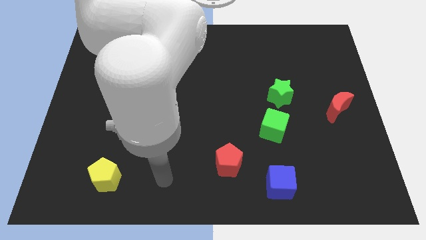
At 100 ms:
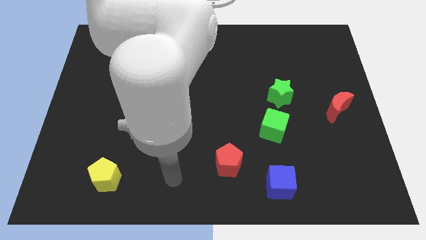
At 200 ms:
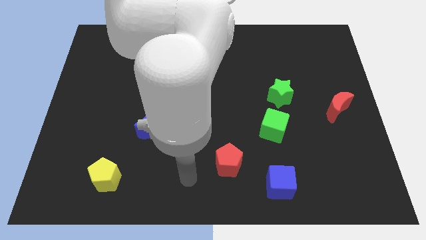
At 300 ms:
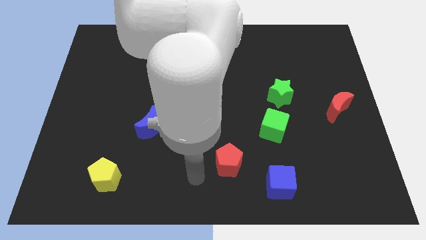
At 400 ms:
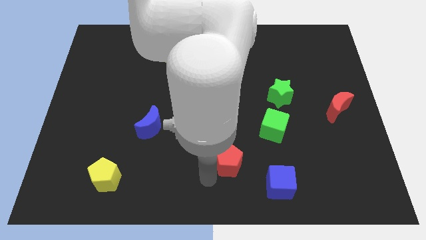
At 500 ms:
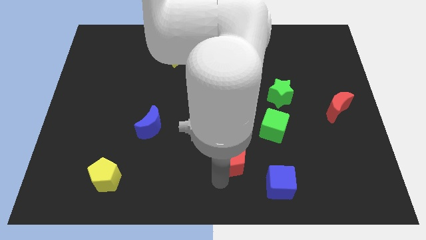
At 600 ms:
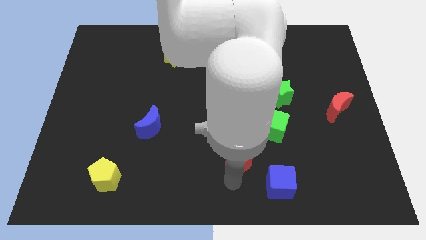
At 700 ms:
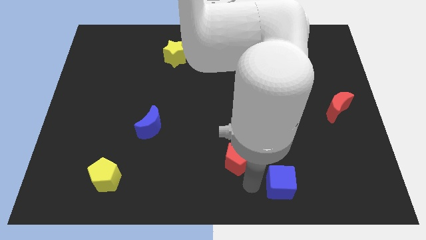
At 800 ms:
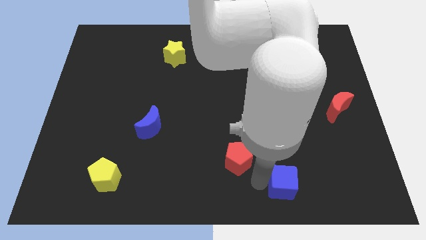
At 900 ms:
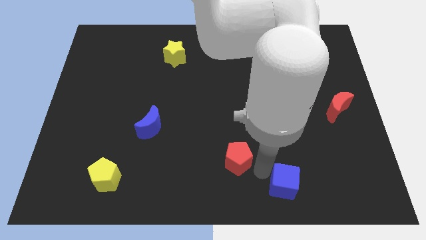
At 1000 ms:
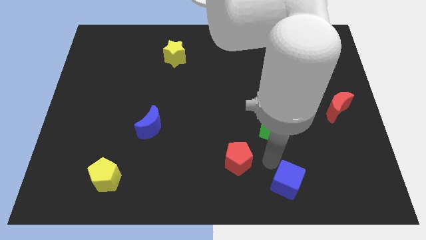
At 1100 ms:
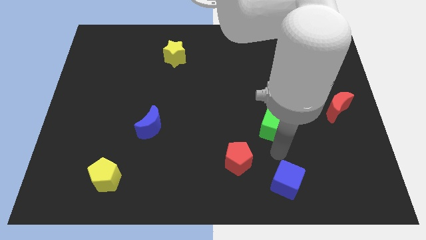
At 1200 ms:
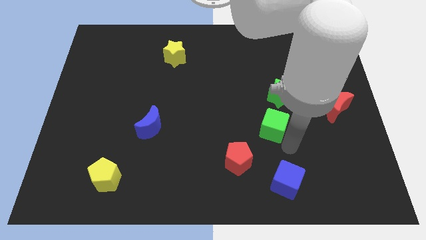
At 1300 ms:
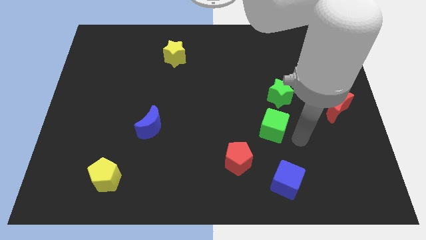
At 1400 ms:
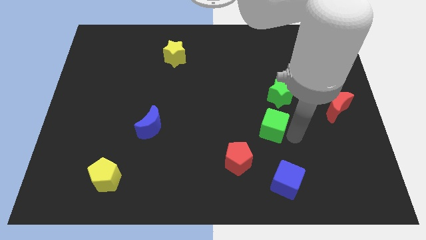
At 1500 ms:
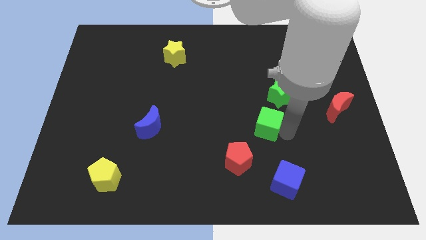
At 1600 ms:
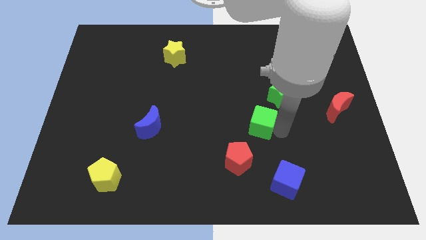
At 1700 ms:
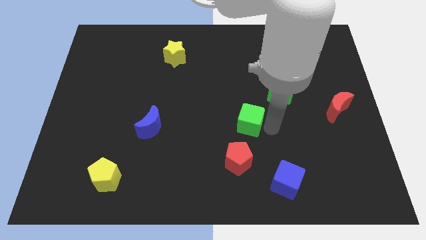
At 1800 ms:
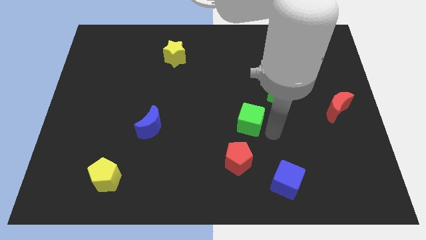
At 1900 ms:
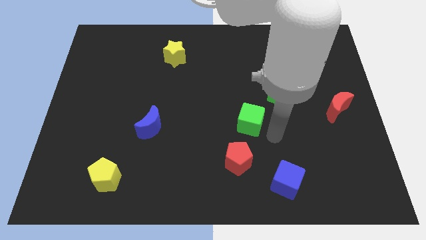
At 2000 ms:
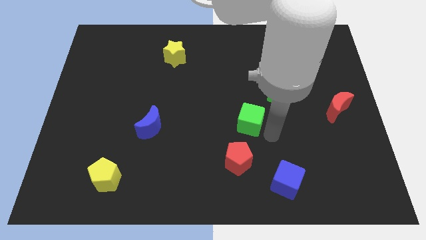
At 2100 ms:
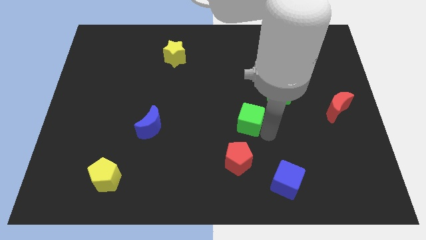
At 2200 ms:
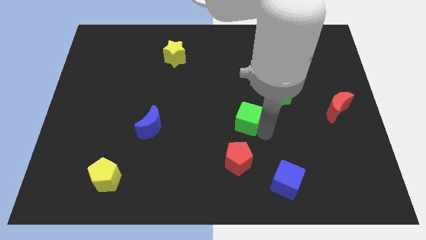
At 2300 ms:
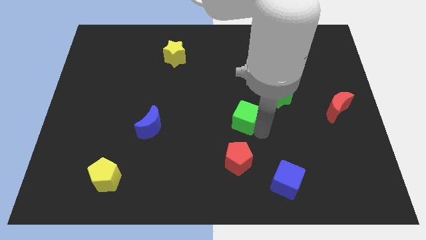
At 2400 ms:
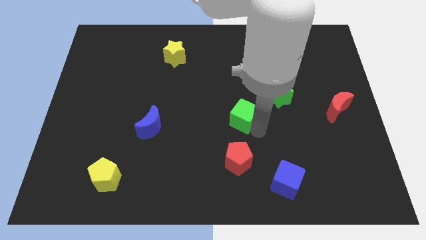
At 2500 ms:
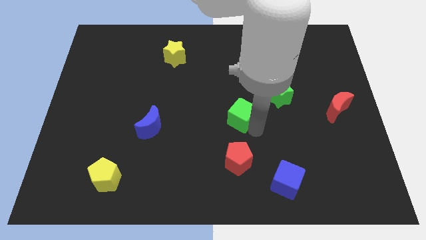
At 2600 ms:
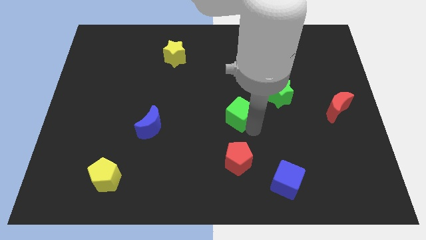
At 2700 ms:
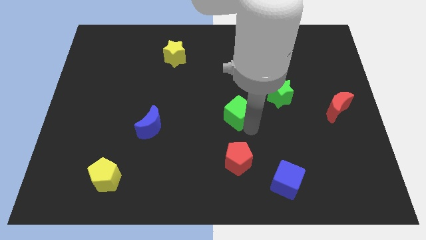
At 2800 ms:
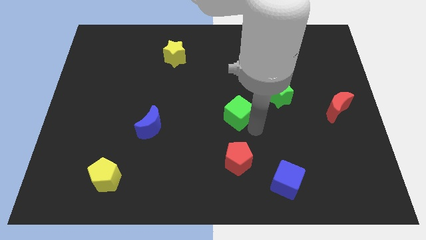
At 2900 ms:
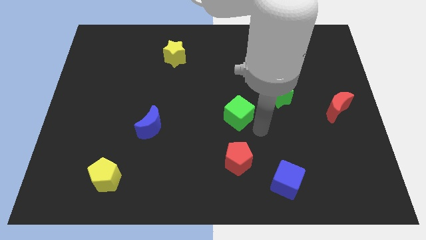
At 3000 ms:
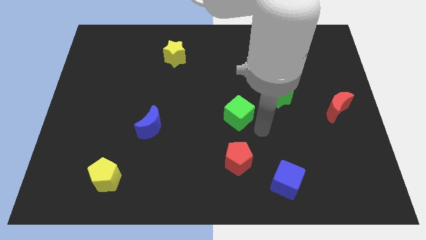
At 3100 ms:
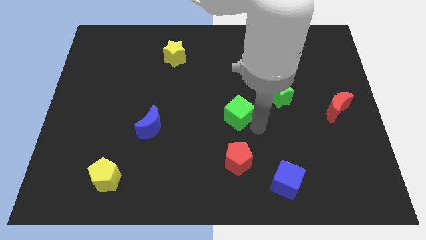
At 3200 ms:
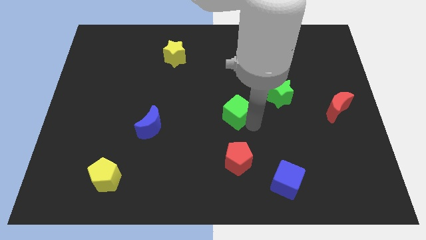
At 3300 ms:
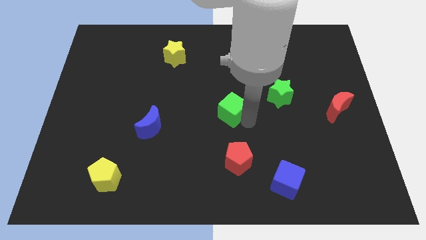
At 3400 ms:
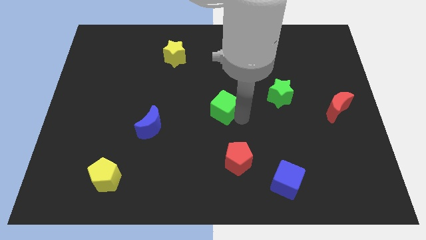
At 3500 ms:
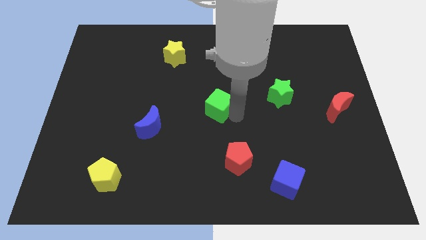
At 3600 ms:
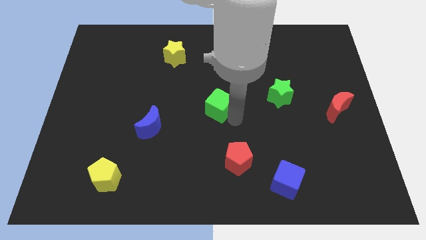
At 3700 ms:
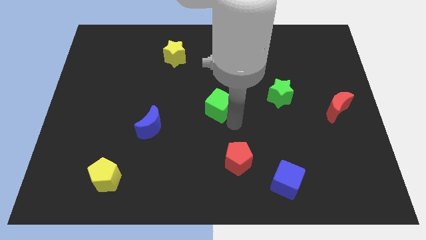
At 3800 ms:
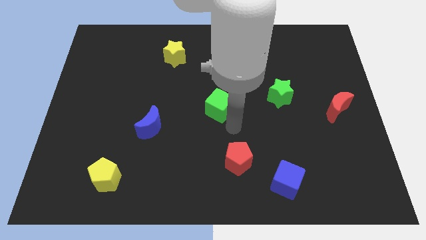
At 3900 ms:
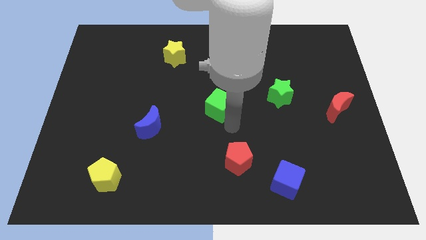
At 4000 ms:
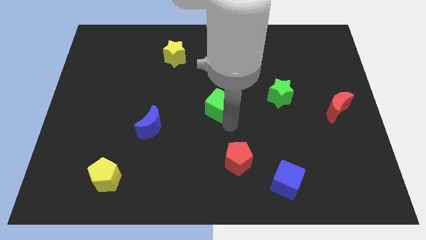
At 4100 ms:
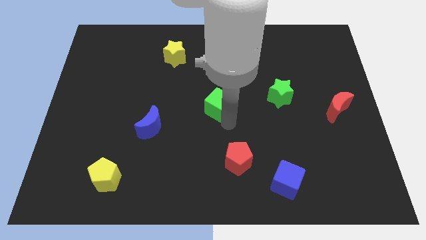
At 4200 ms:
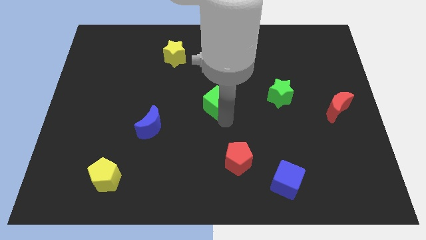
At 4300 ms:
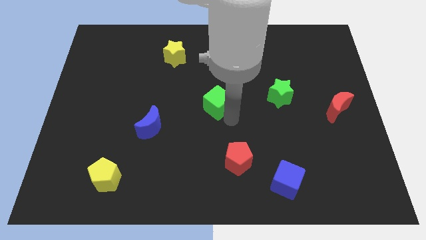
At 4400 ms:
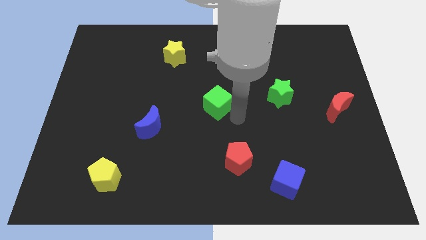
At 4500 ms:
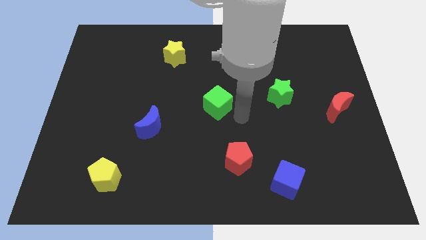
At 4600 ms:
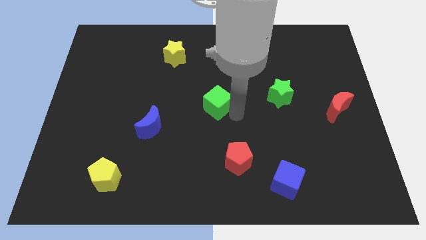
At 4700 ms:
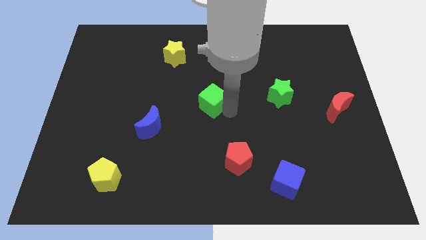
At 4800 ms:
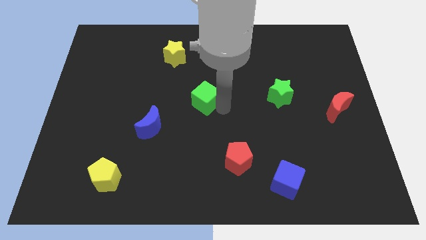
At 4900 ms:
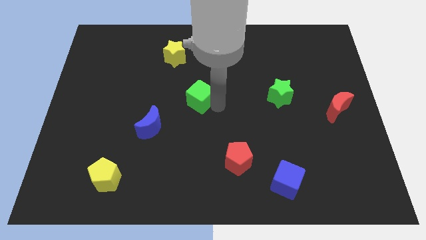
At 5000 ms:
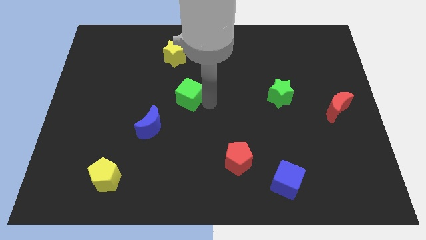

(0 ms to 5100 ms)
put the green cube to the bottom of the yellow star
